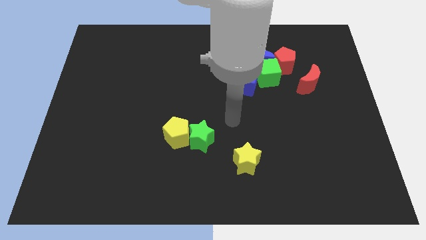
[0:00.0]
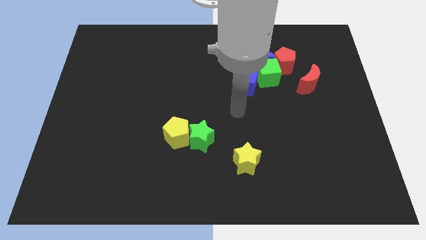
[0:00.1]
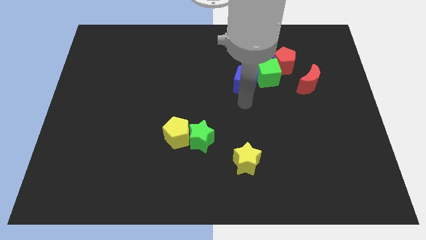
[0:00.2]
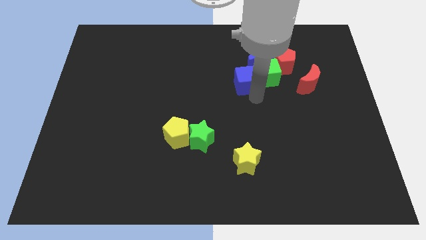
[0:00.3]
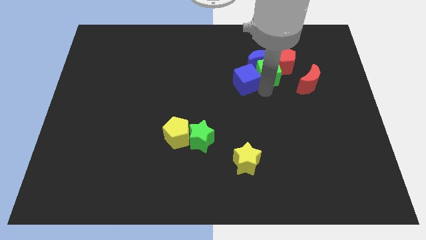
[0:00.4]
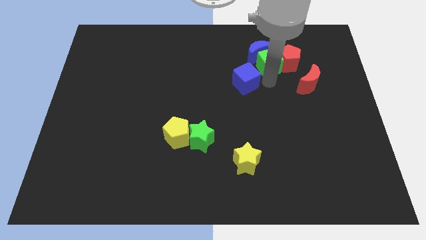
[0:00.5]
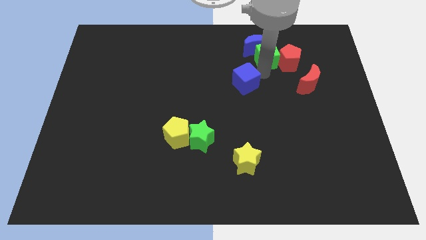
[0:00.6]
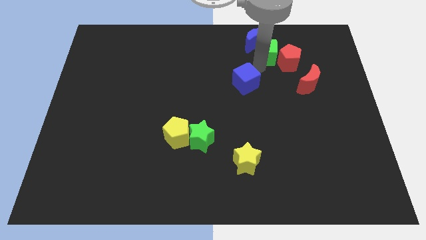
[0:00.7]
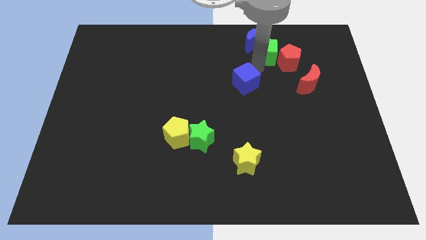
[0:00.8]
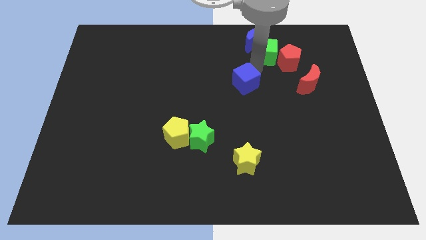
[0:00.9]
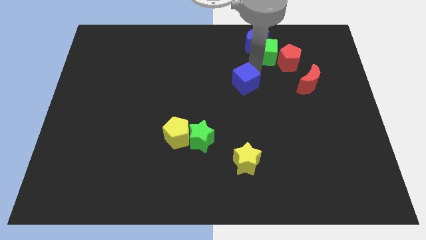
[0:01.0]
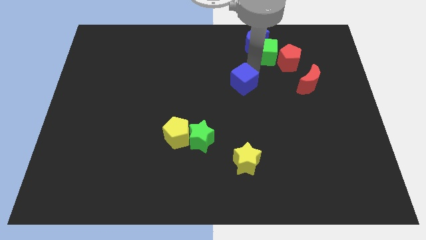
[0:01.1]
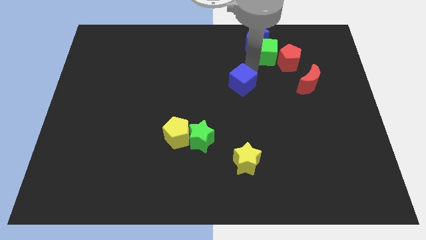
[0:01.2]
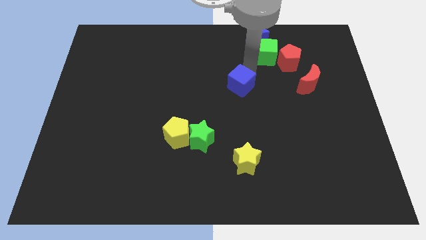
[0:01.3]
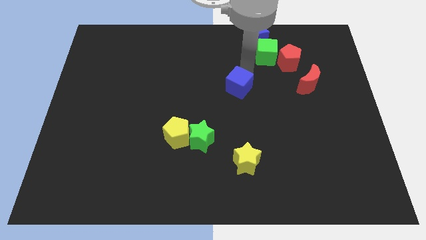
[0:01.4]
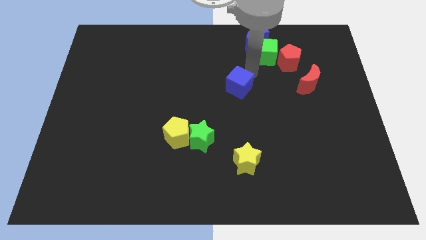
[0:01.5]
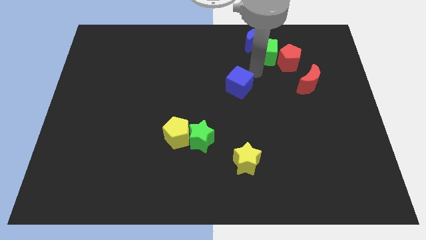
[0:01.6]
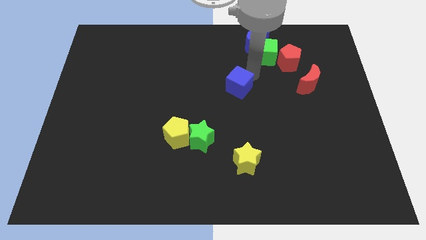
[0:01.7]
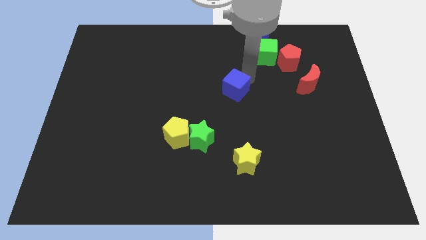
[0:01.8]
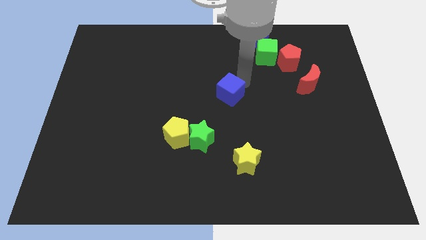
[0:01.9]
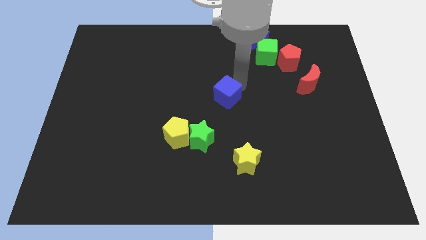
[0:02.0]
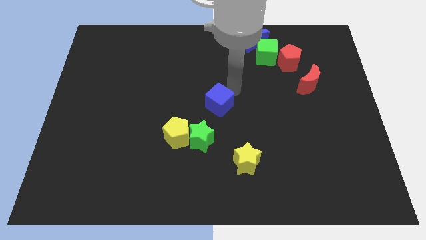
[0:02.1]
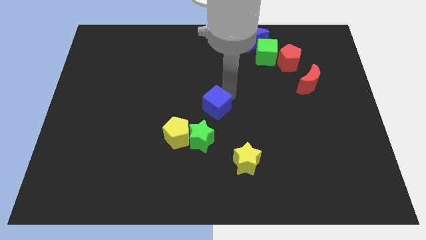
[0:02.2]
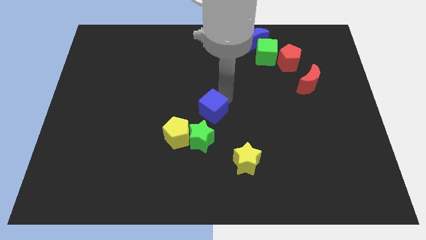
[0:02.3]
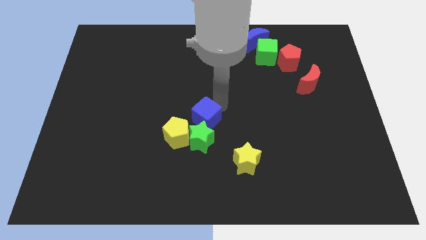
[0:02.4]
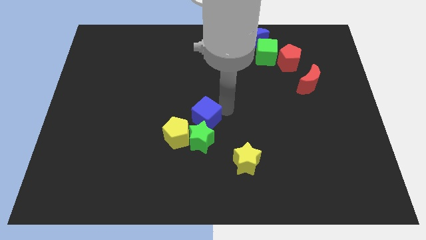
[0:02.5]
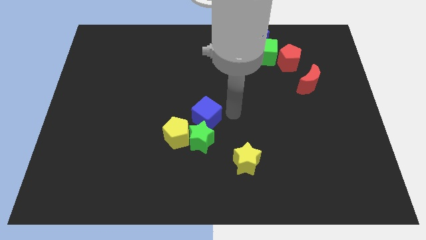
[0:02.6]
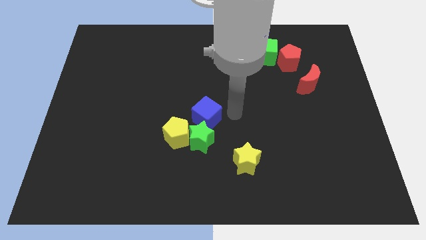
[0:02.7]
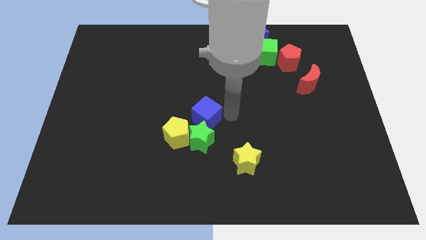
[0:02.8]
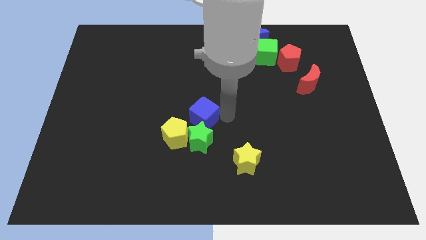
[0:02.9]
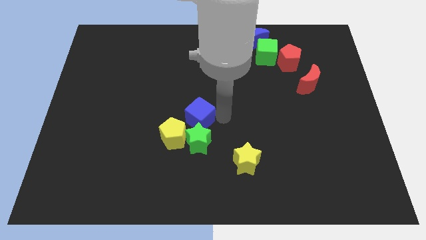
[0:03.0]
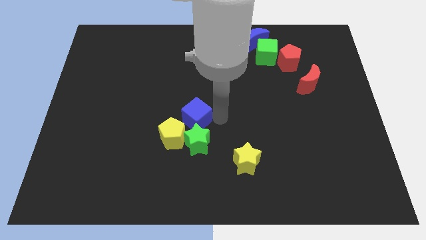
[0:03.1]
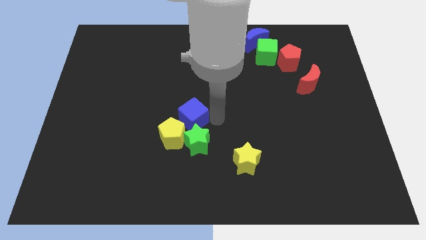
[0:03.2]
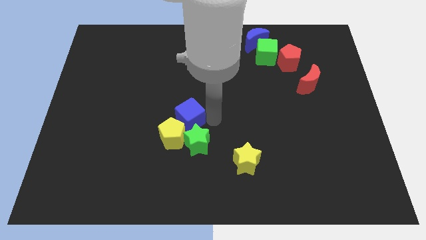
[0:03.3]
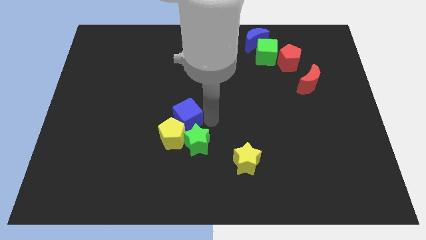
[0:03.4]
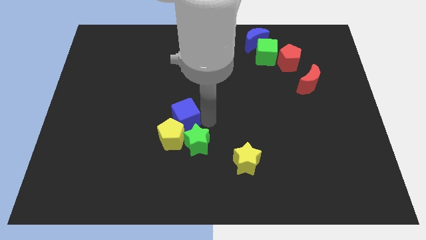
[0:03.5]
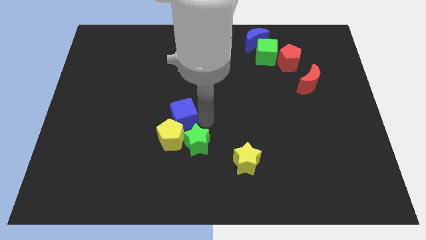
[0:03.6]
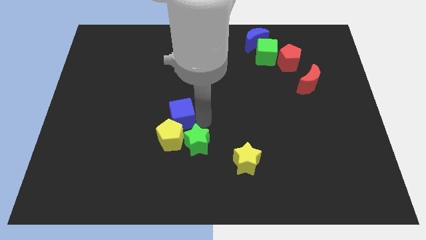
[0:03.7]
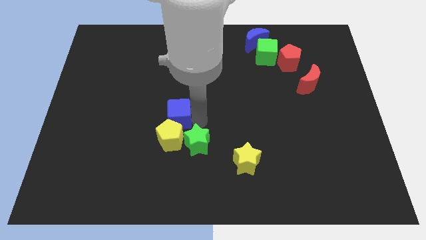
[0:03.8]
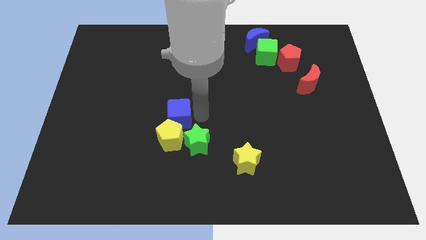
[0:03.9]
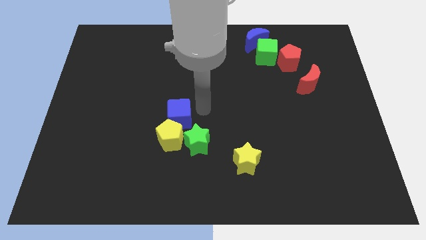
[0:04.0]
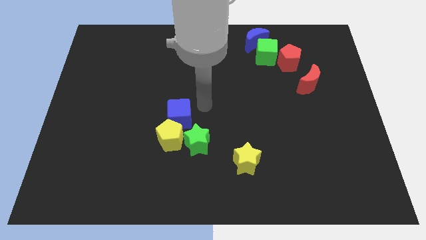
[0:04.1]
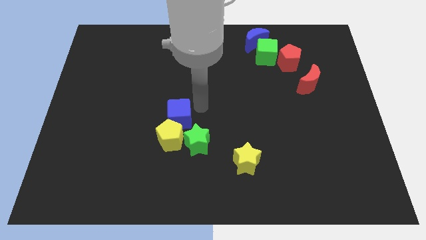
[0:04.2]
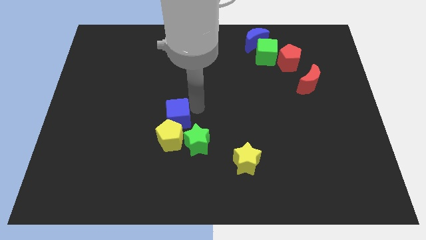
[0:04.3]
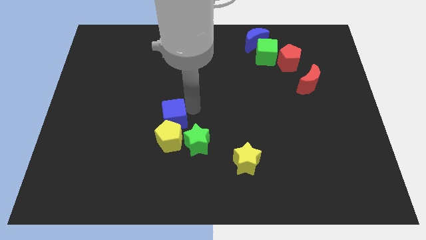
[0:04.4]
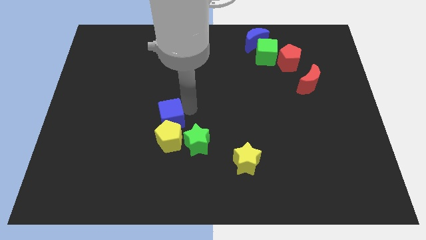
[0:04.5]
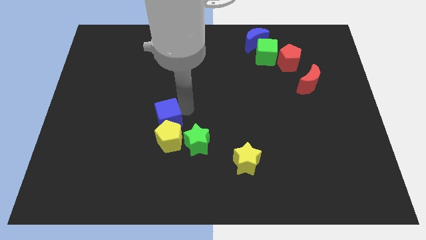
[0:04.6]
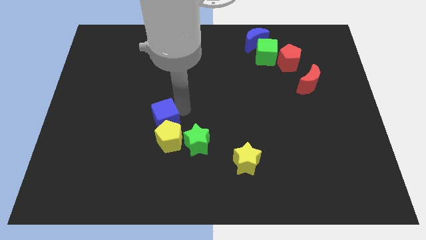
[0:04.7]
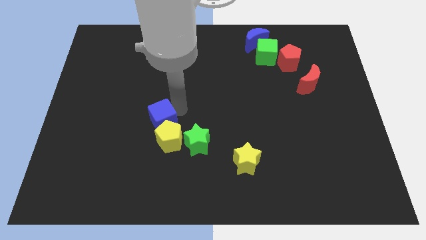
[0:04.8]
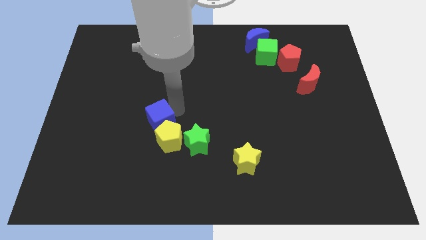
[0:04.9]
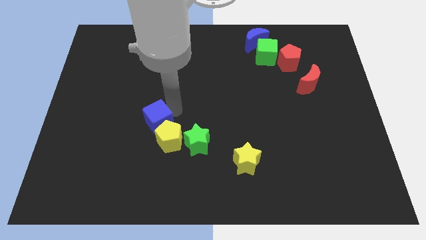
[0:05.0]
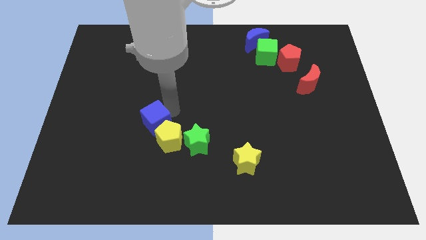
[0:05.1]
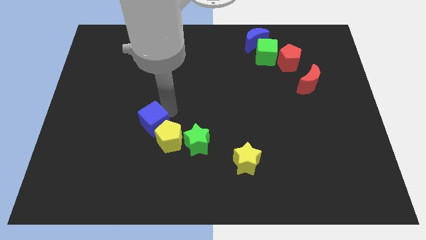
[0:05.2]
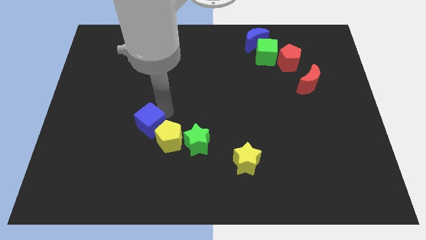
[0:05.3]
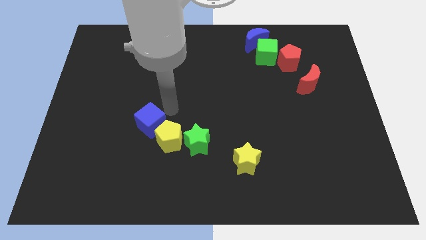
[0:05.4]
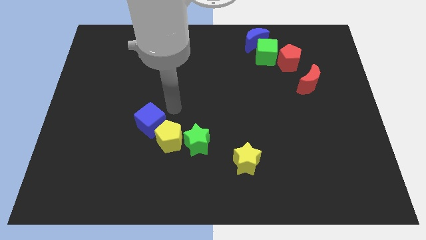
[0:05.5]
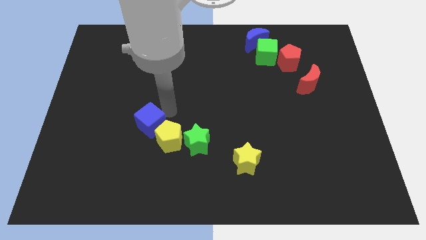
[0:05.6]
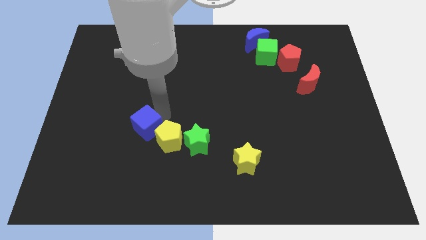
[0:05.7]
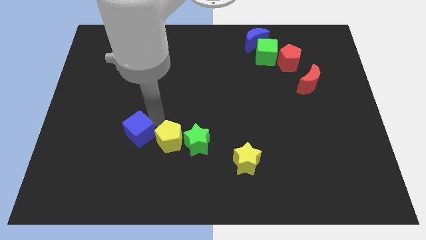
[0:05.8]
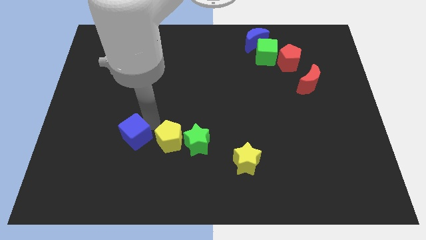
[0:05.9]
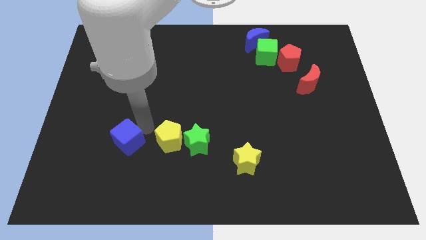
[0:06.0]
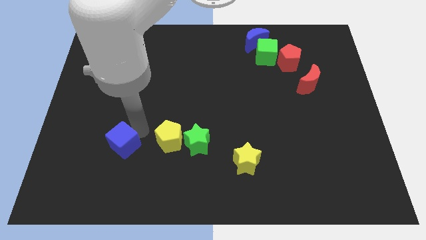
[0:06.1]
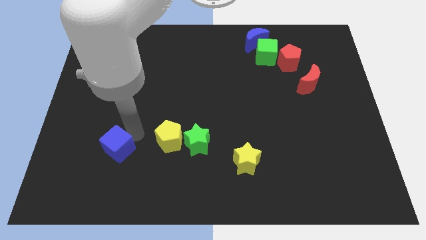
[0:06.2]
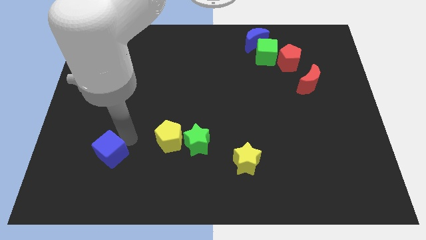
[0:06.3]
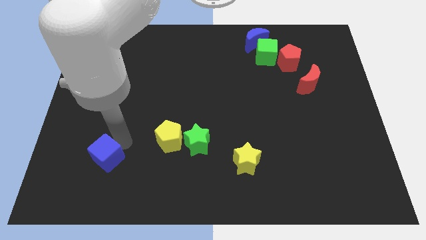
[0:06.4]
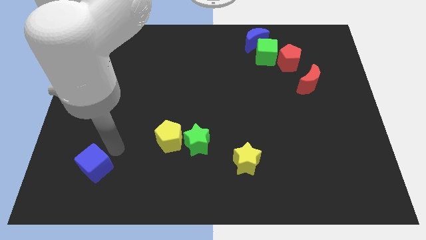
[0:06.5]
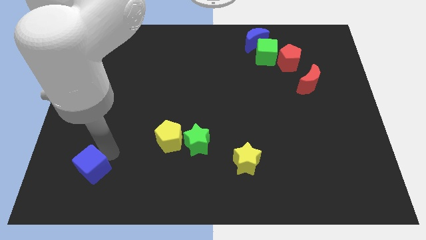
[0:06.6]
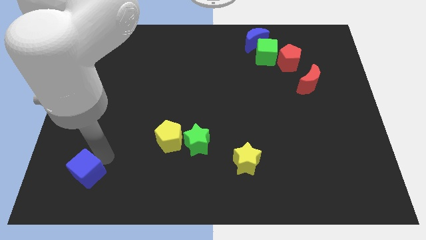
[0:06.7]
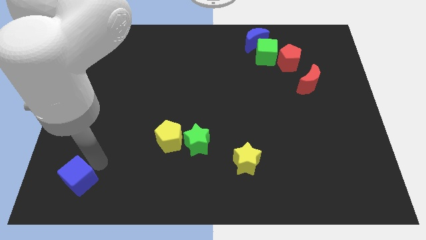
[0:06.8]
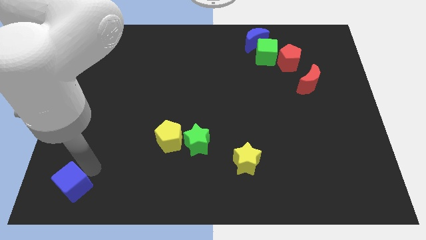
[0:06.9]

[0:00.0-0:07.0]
put the blue cube to the bottom left
